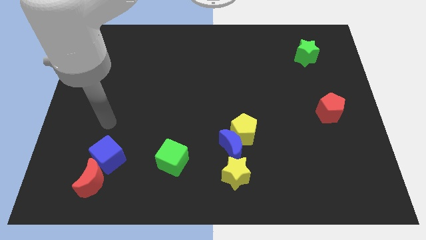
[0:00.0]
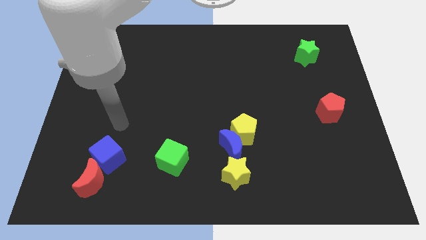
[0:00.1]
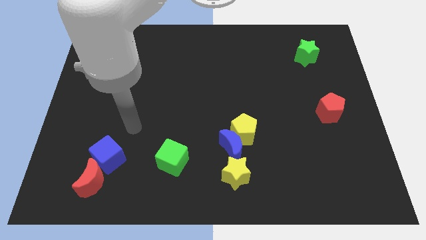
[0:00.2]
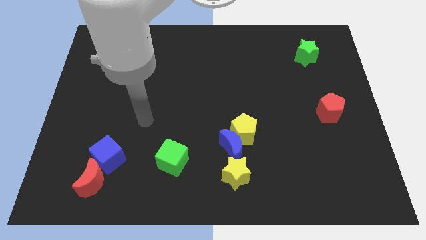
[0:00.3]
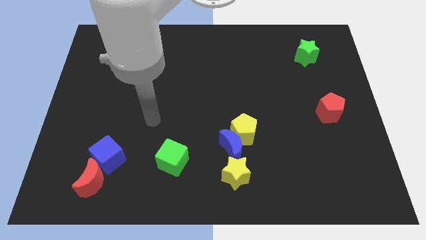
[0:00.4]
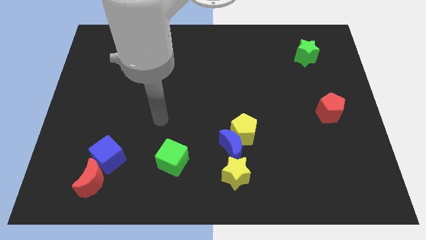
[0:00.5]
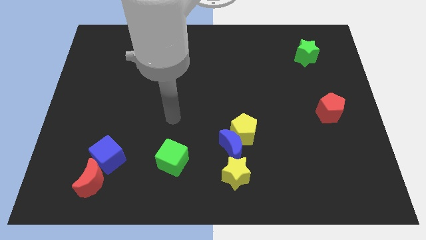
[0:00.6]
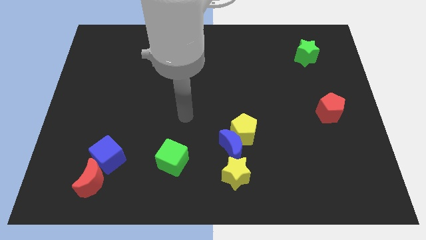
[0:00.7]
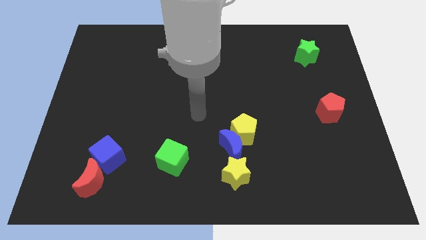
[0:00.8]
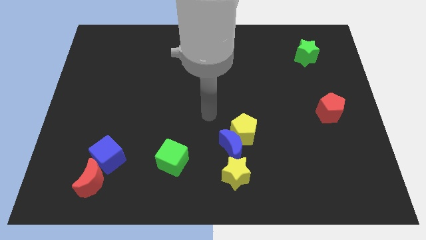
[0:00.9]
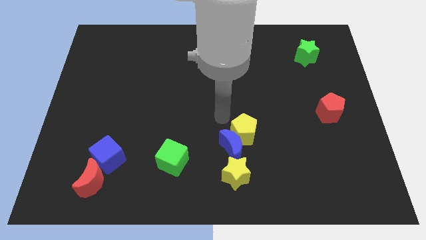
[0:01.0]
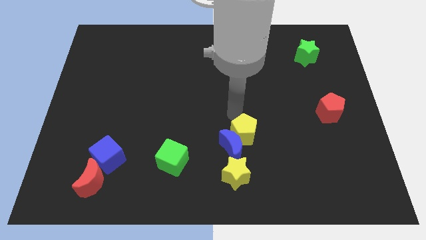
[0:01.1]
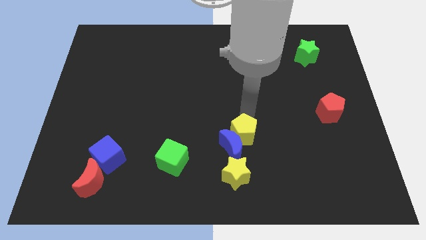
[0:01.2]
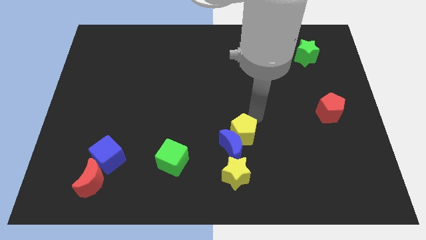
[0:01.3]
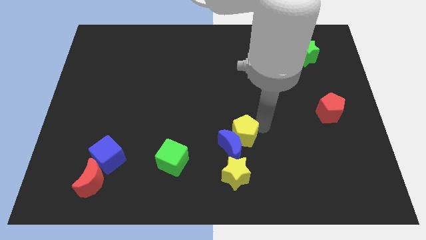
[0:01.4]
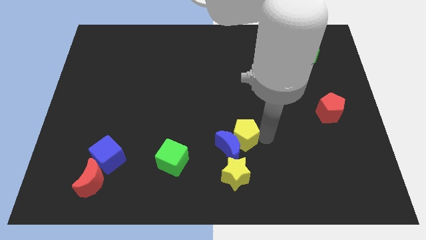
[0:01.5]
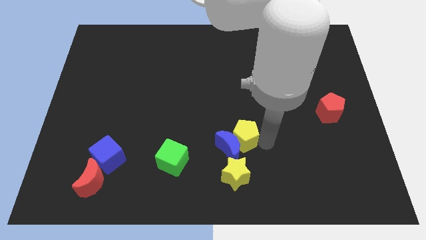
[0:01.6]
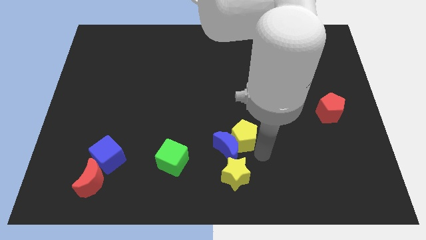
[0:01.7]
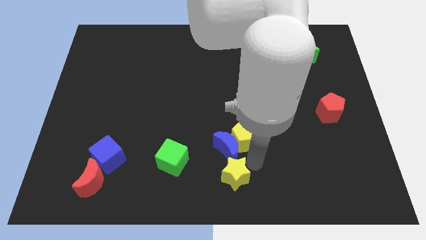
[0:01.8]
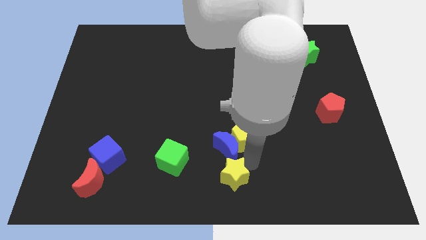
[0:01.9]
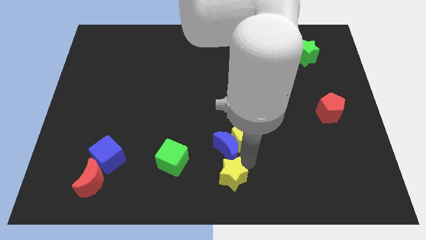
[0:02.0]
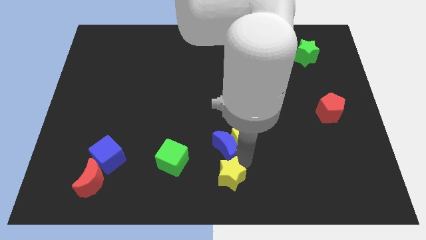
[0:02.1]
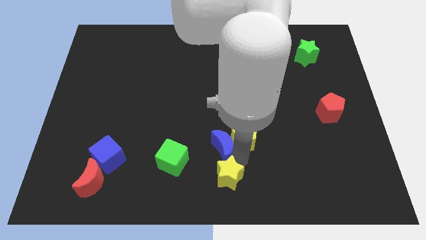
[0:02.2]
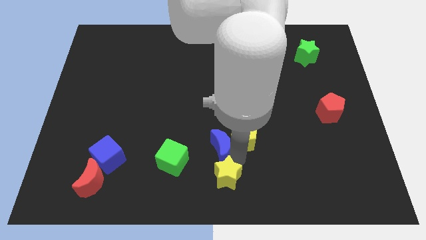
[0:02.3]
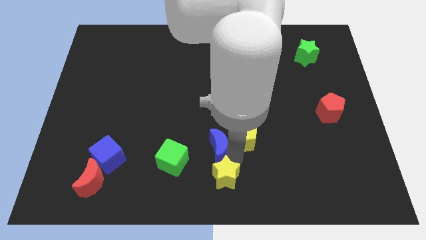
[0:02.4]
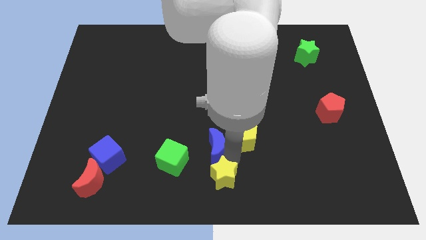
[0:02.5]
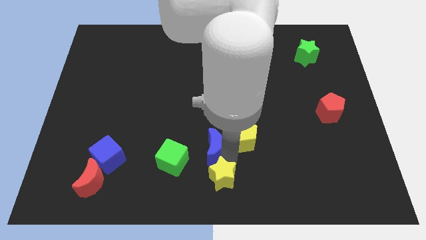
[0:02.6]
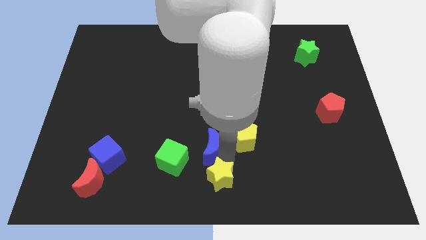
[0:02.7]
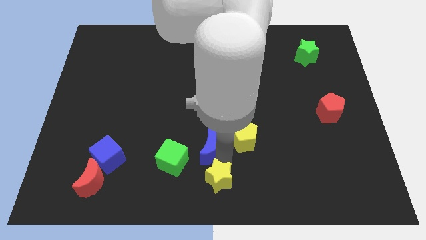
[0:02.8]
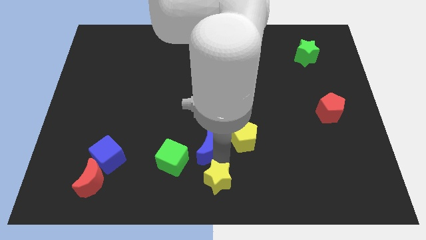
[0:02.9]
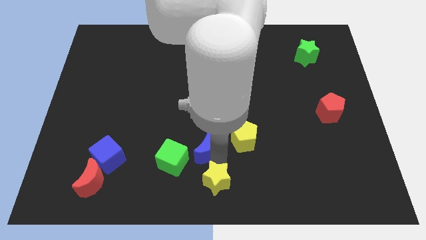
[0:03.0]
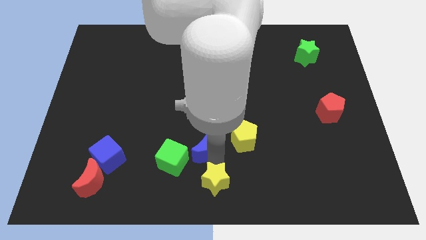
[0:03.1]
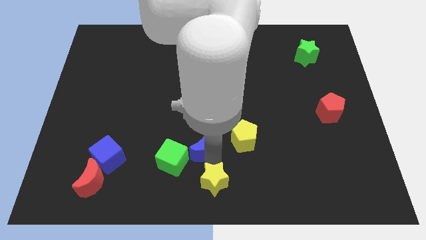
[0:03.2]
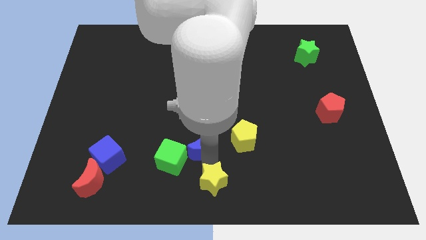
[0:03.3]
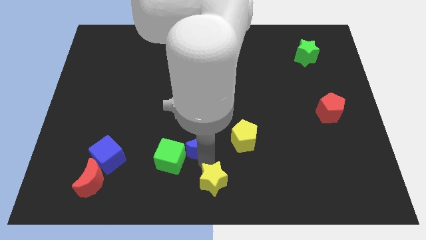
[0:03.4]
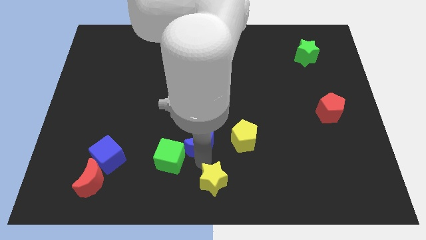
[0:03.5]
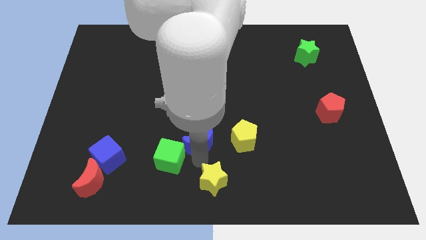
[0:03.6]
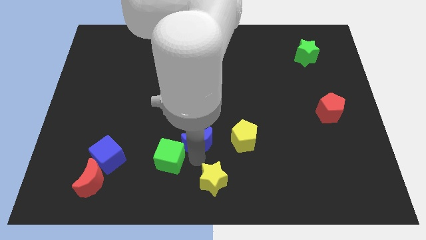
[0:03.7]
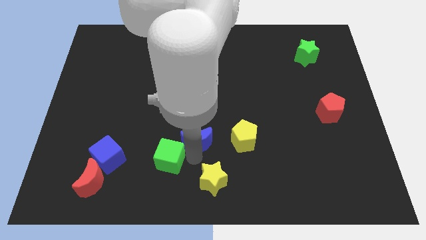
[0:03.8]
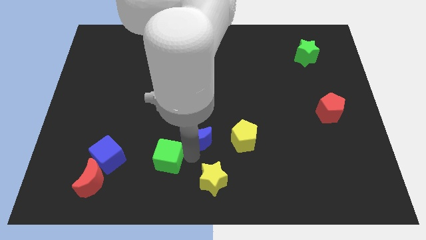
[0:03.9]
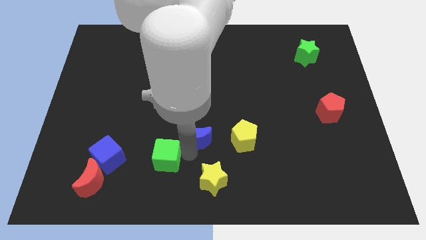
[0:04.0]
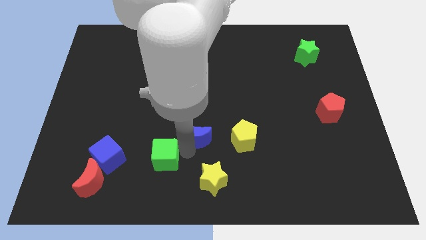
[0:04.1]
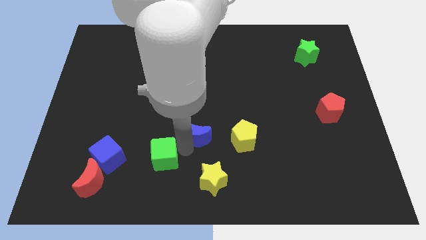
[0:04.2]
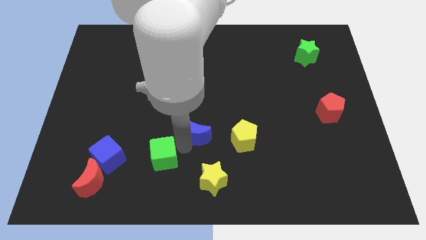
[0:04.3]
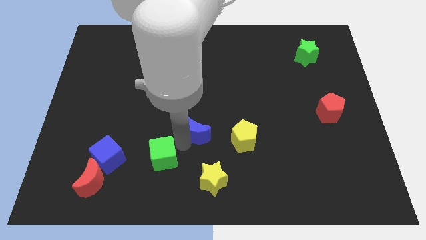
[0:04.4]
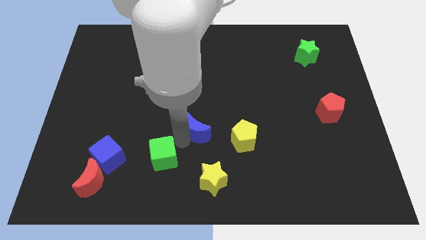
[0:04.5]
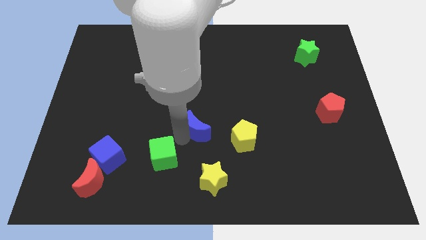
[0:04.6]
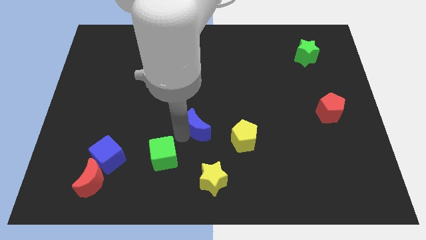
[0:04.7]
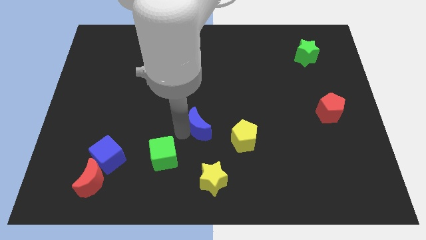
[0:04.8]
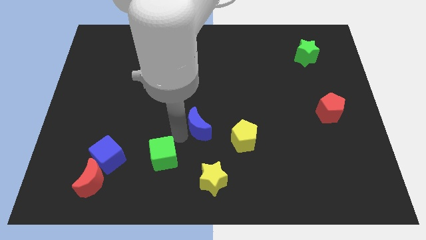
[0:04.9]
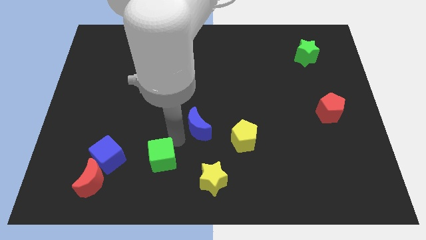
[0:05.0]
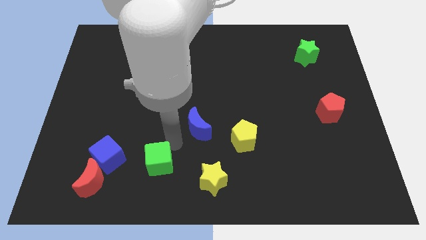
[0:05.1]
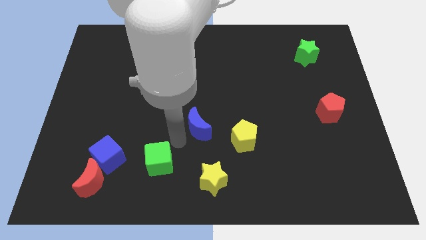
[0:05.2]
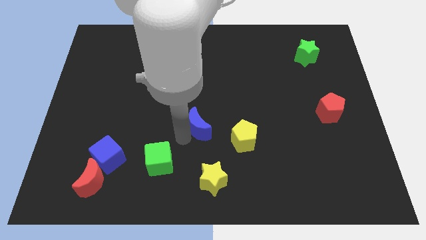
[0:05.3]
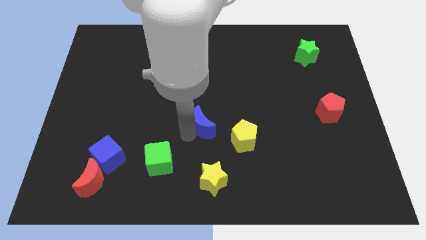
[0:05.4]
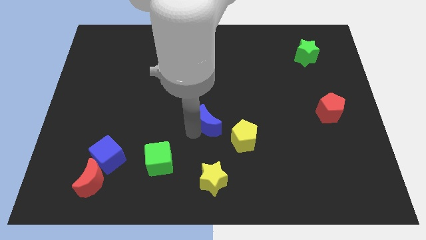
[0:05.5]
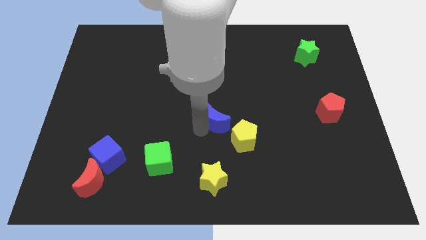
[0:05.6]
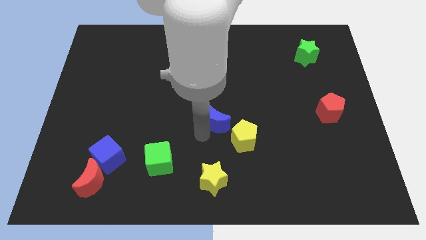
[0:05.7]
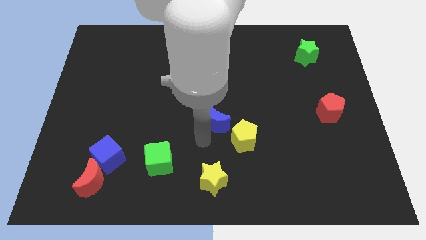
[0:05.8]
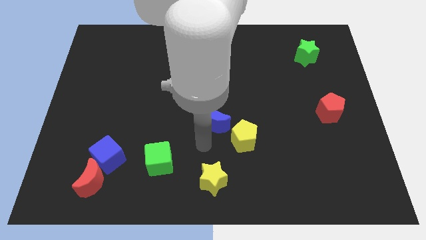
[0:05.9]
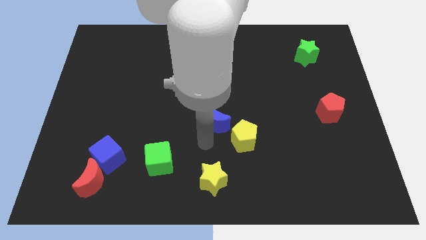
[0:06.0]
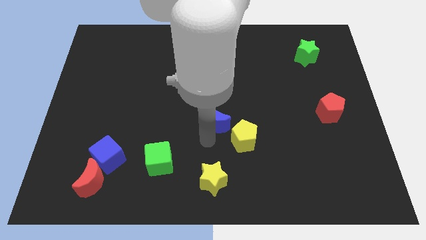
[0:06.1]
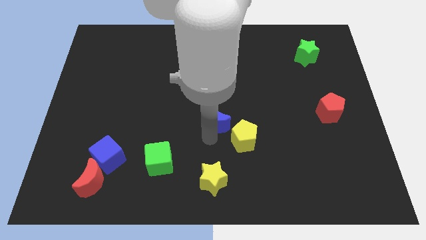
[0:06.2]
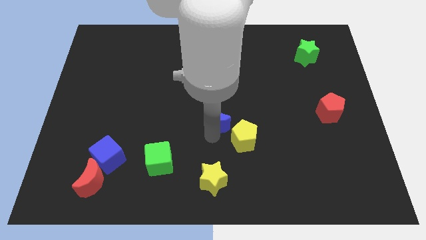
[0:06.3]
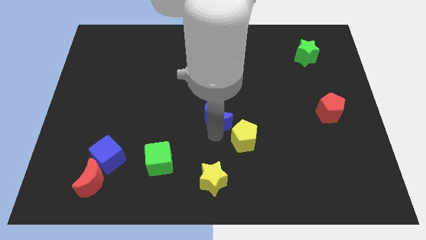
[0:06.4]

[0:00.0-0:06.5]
slide the blue moon a little bit upwards

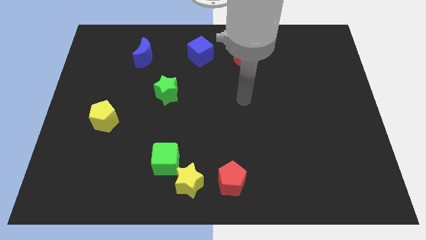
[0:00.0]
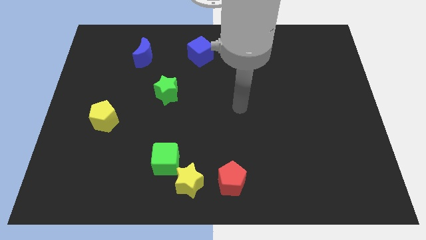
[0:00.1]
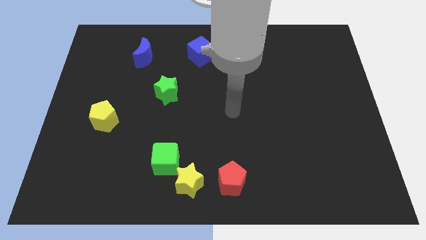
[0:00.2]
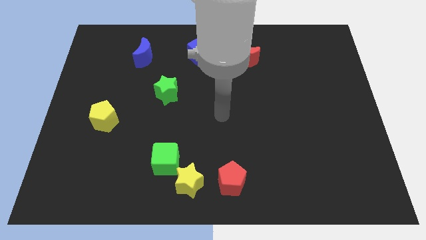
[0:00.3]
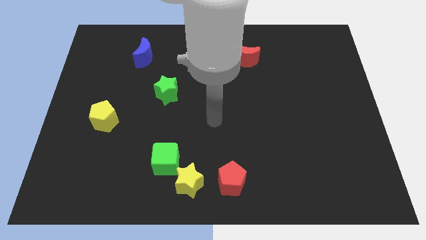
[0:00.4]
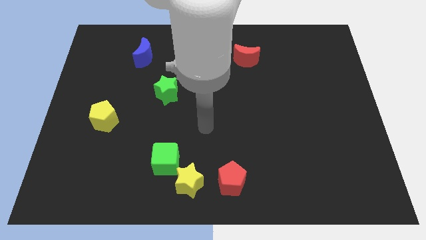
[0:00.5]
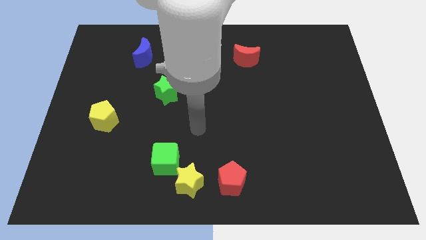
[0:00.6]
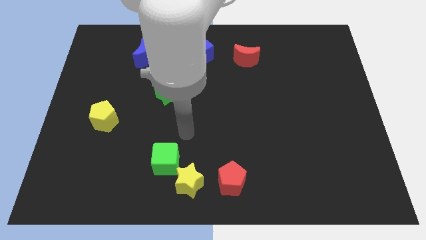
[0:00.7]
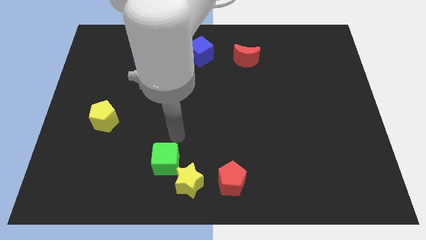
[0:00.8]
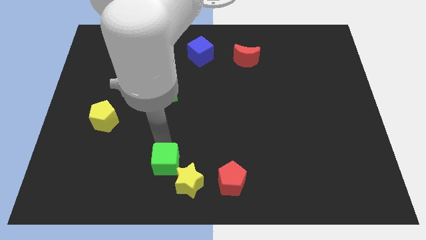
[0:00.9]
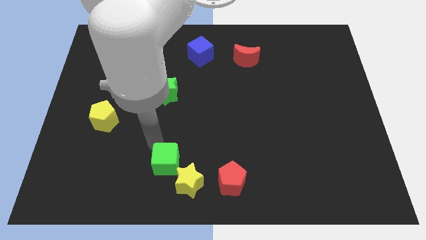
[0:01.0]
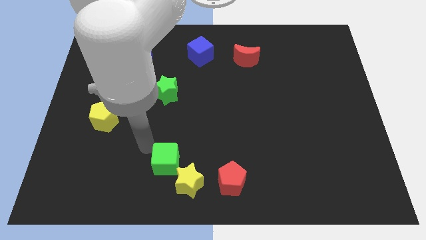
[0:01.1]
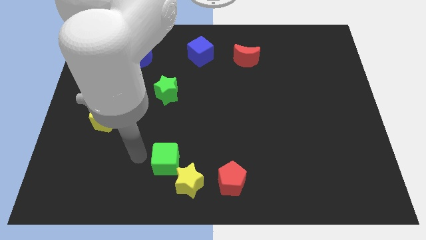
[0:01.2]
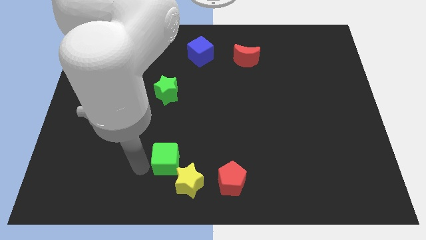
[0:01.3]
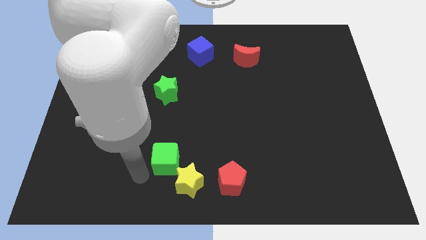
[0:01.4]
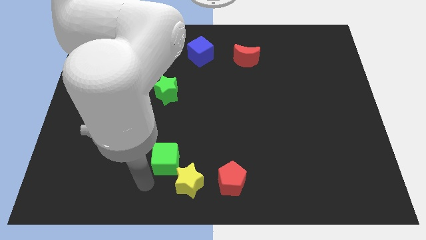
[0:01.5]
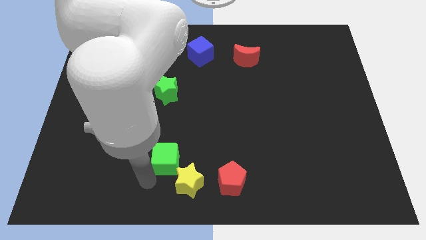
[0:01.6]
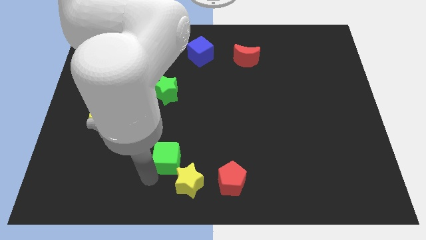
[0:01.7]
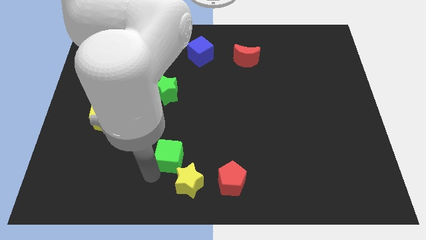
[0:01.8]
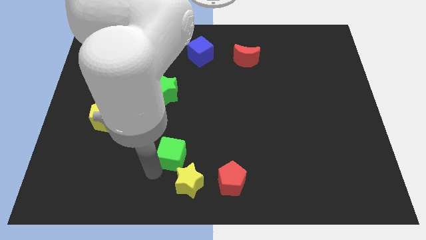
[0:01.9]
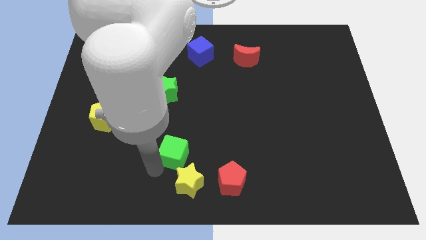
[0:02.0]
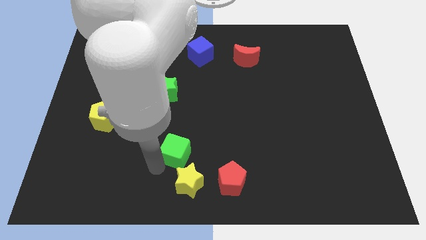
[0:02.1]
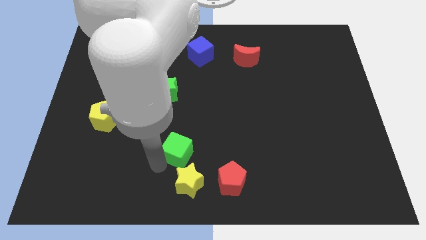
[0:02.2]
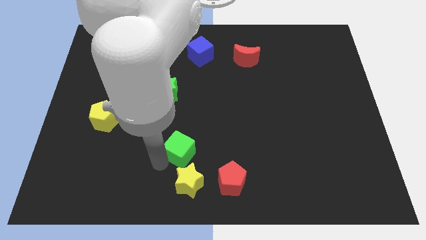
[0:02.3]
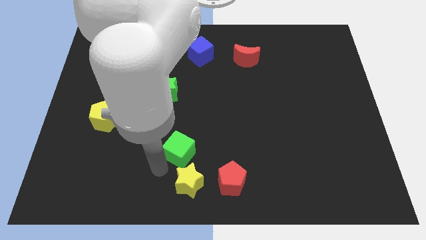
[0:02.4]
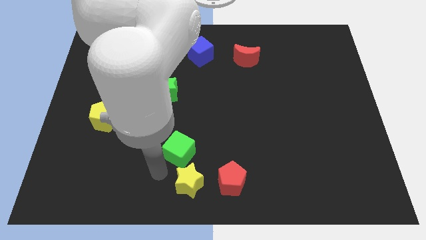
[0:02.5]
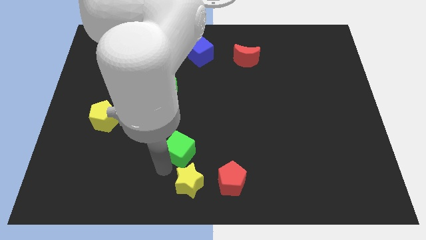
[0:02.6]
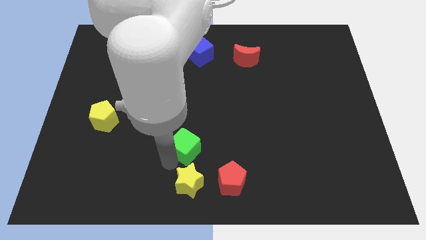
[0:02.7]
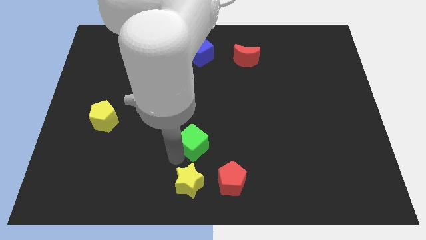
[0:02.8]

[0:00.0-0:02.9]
slide the green cube diagonally up and right somewhat
